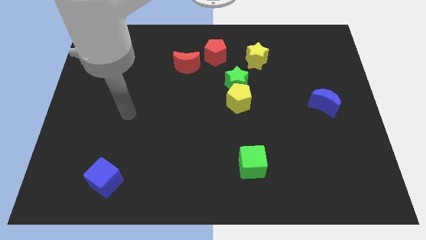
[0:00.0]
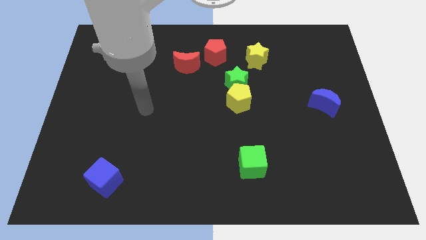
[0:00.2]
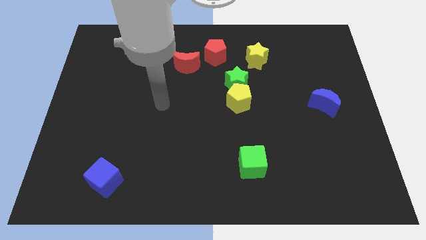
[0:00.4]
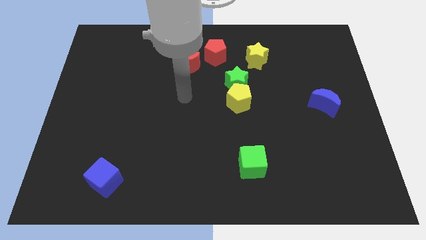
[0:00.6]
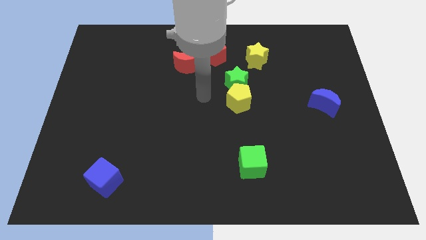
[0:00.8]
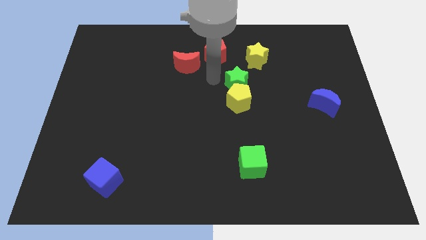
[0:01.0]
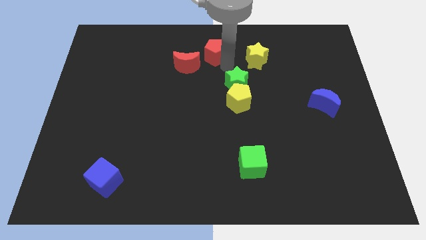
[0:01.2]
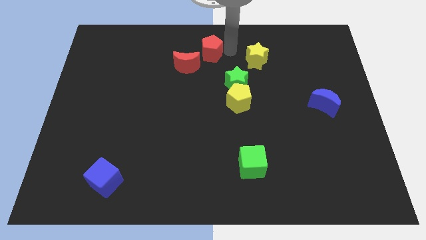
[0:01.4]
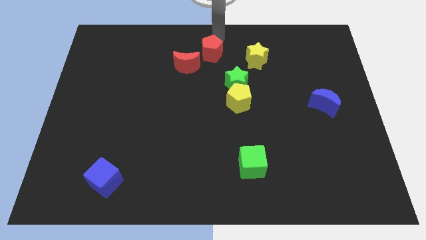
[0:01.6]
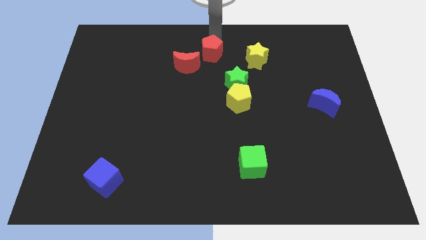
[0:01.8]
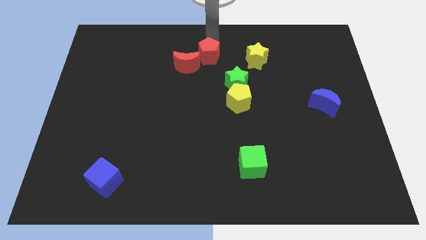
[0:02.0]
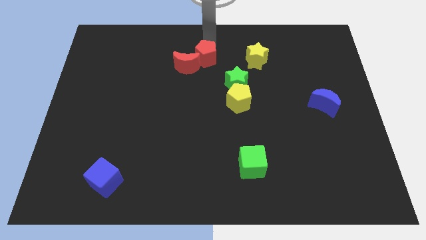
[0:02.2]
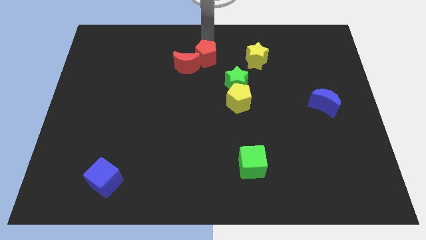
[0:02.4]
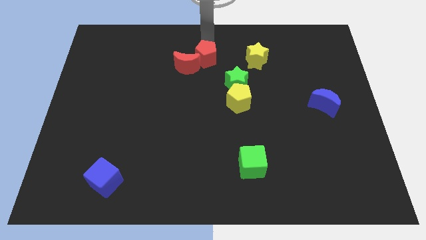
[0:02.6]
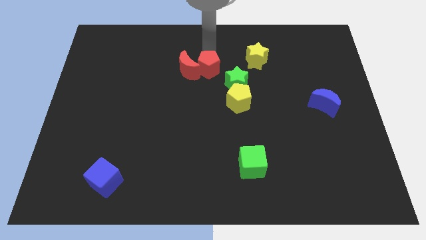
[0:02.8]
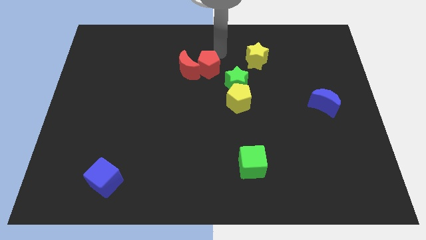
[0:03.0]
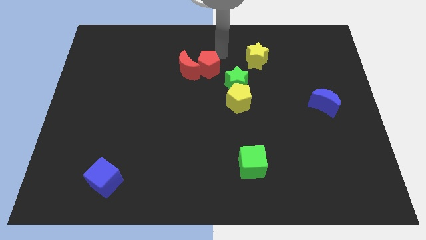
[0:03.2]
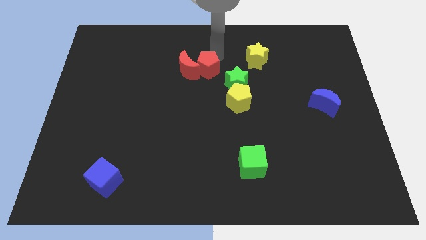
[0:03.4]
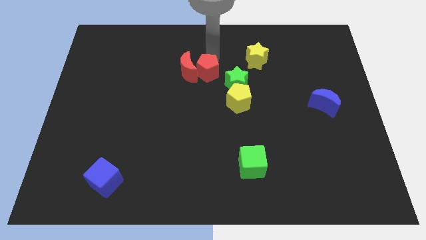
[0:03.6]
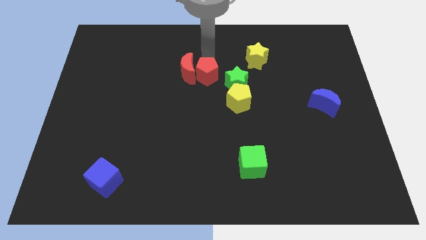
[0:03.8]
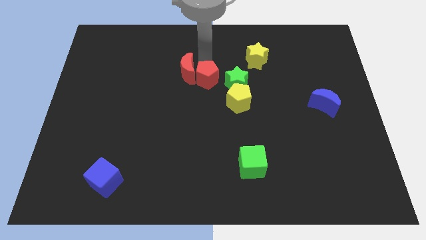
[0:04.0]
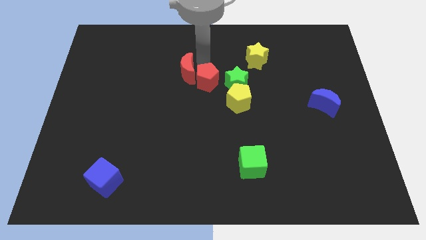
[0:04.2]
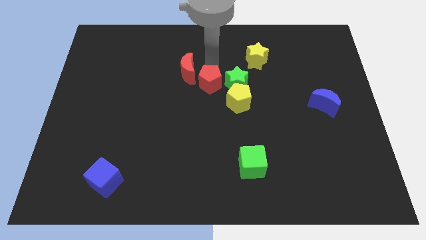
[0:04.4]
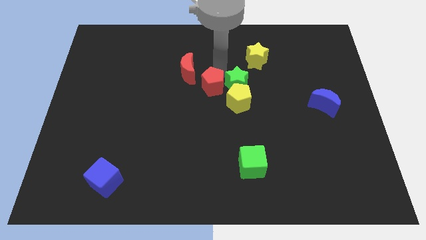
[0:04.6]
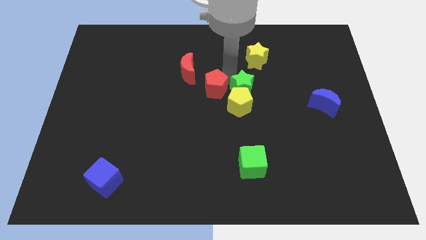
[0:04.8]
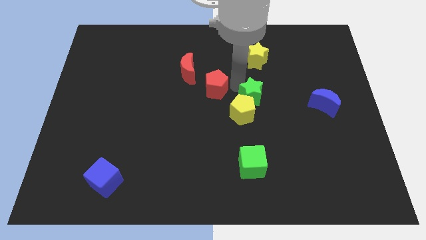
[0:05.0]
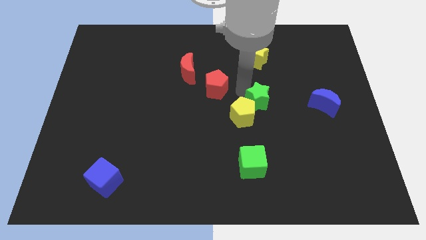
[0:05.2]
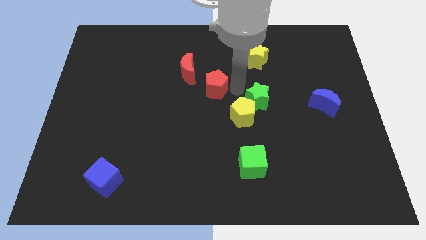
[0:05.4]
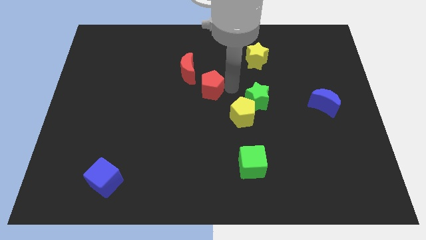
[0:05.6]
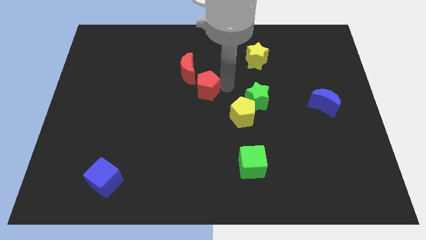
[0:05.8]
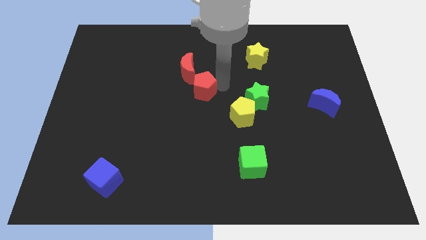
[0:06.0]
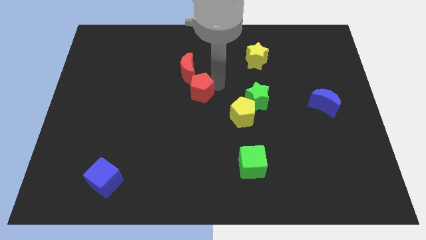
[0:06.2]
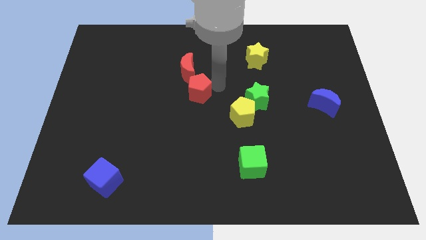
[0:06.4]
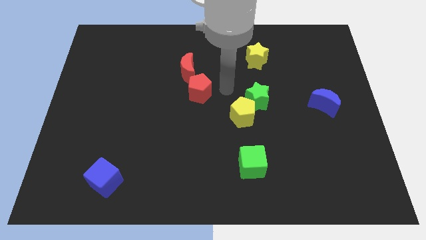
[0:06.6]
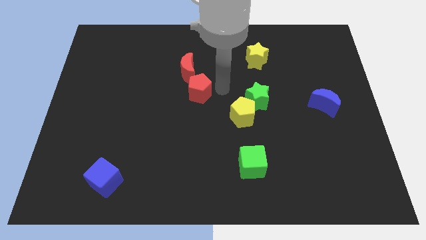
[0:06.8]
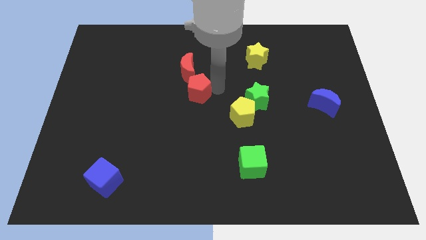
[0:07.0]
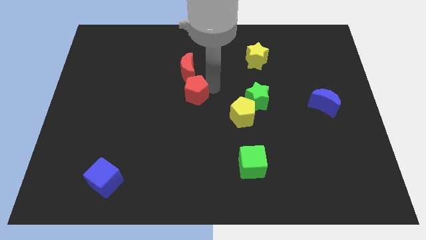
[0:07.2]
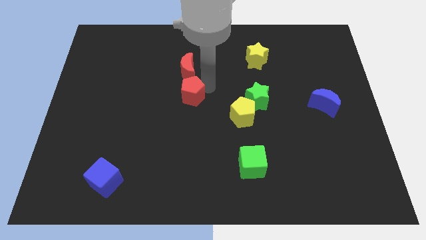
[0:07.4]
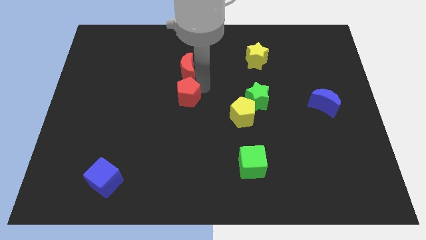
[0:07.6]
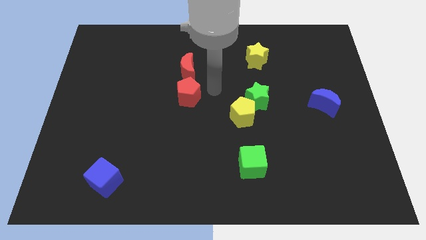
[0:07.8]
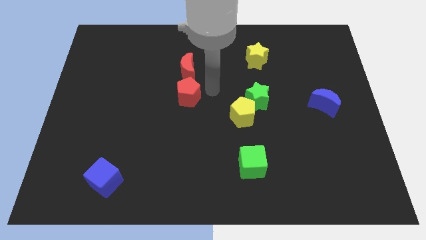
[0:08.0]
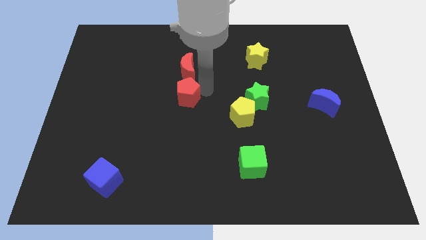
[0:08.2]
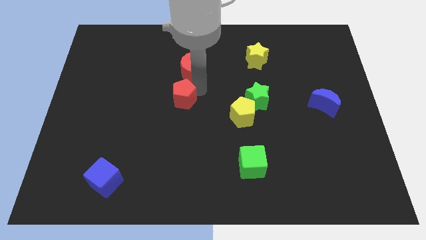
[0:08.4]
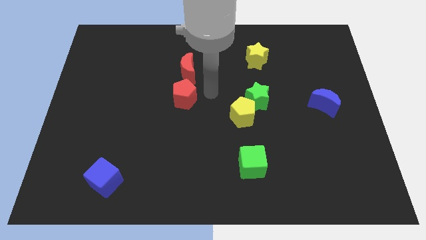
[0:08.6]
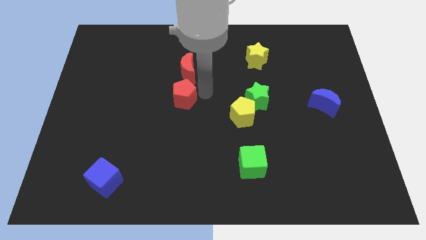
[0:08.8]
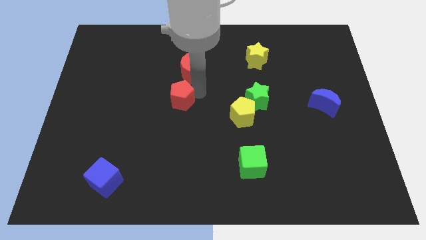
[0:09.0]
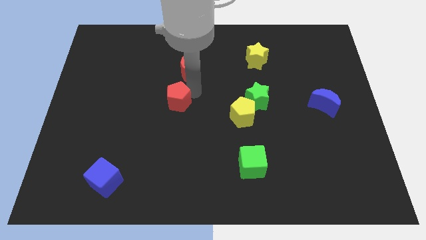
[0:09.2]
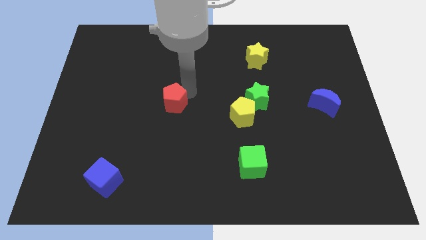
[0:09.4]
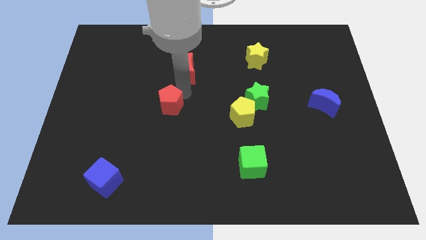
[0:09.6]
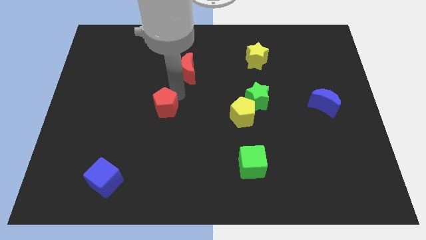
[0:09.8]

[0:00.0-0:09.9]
move the red pentagon down and left

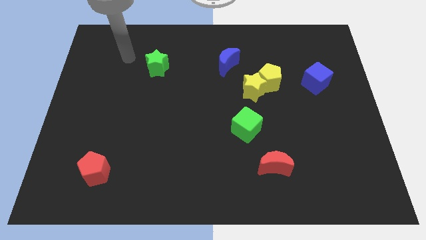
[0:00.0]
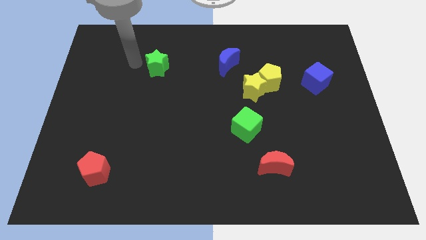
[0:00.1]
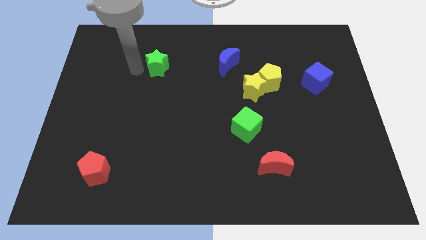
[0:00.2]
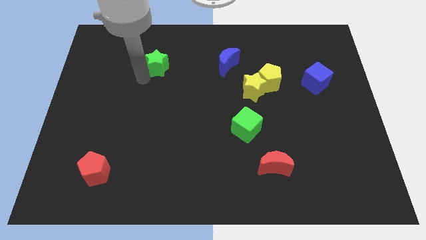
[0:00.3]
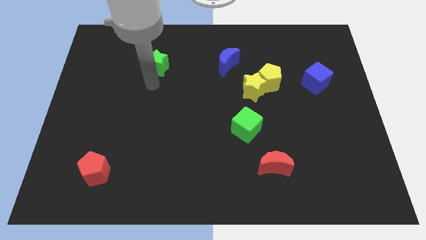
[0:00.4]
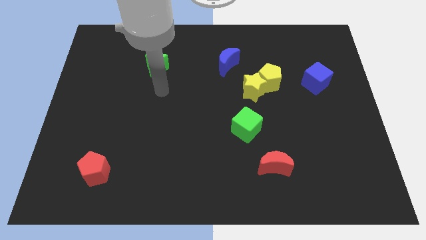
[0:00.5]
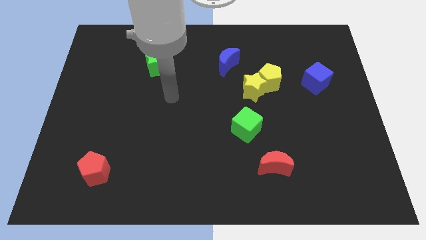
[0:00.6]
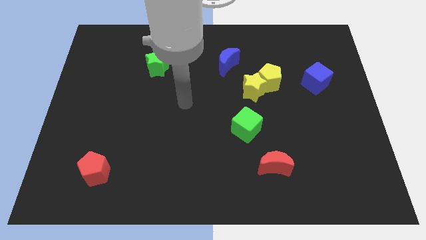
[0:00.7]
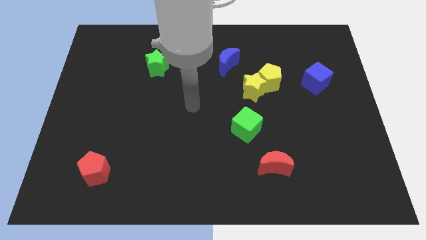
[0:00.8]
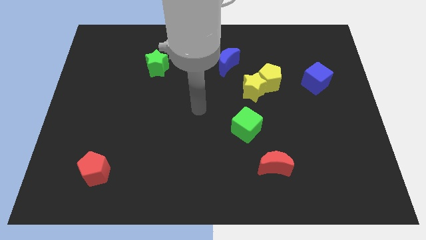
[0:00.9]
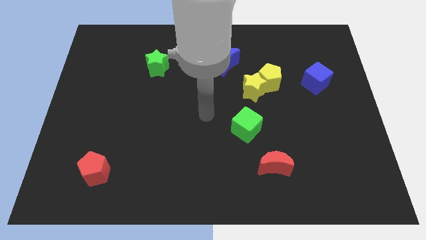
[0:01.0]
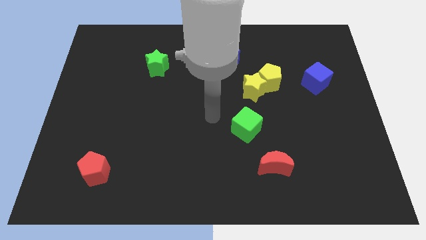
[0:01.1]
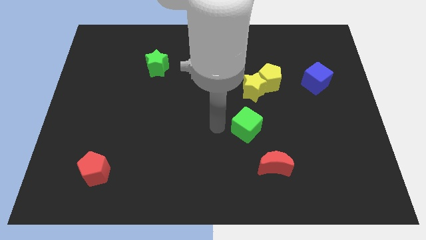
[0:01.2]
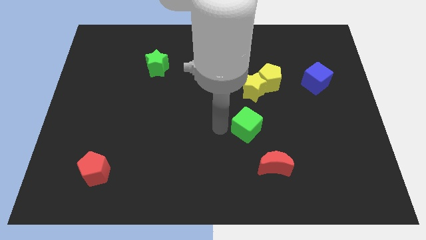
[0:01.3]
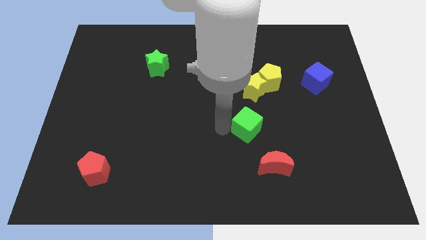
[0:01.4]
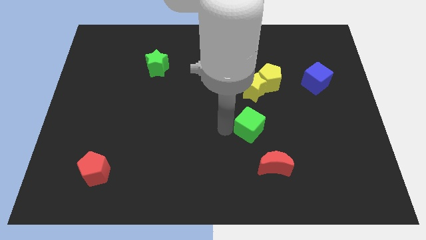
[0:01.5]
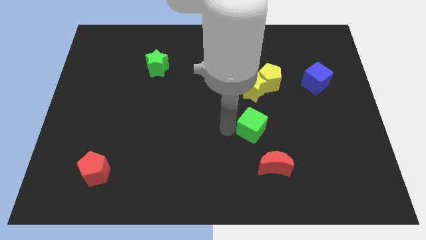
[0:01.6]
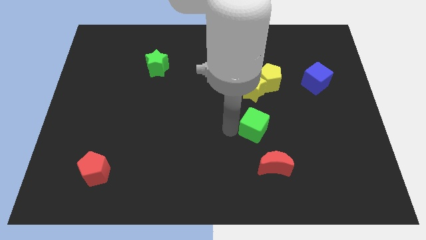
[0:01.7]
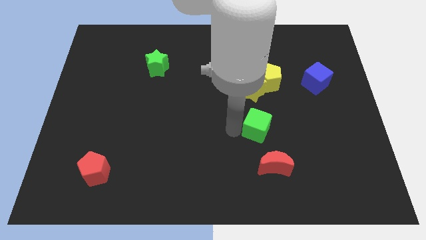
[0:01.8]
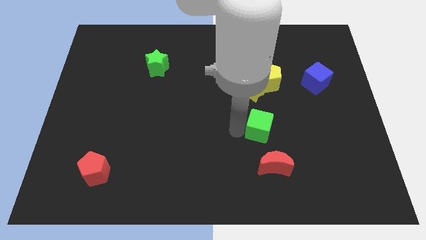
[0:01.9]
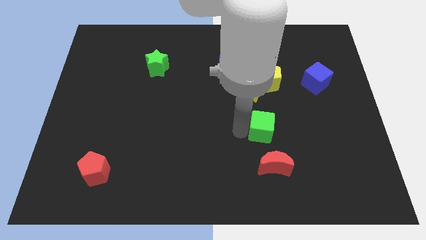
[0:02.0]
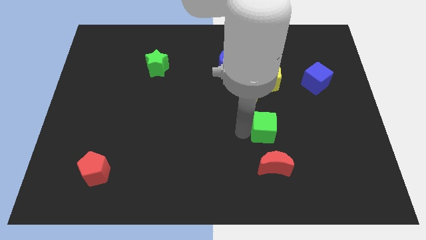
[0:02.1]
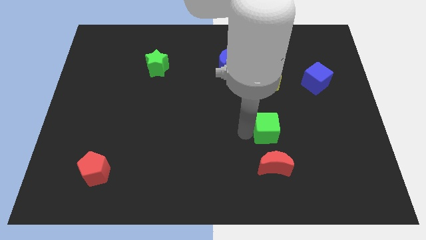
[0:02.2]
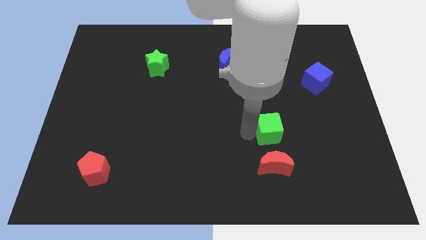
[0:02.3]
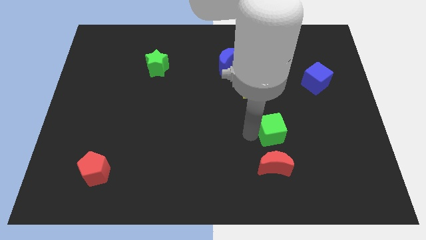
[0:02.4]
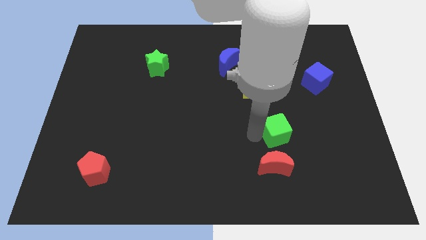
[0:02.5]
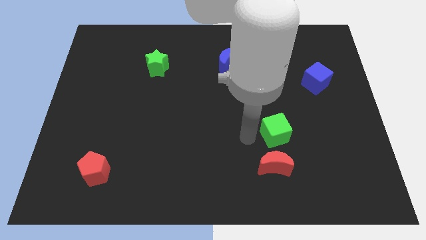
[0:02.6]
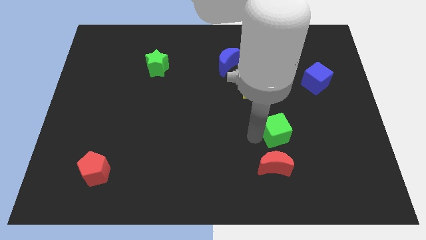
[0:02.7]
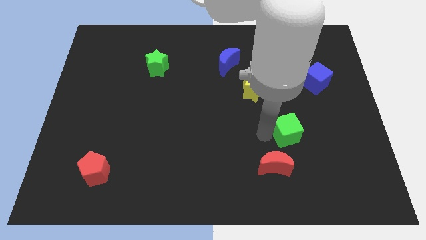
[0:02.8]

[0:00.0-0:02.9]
move the green cube to the right slightly

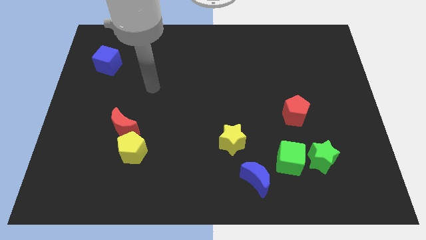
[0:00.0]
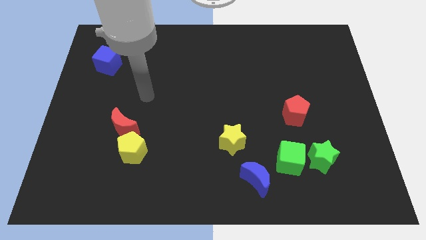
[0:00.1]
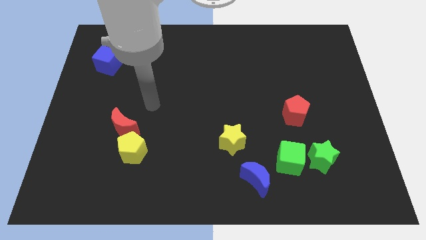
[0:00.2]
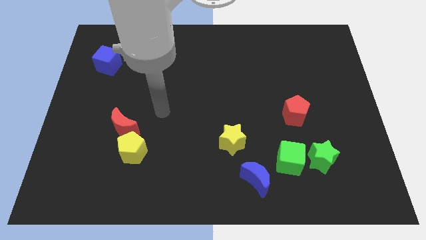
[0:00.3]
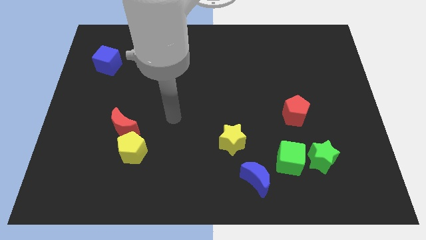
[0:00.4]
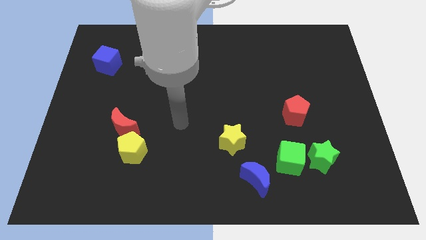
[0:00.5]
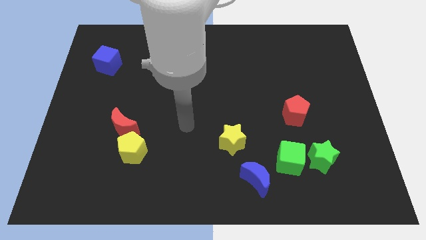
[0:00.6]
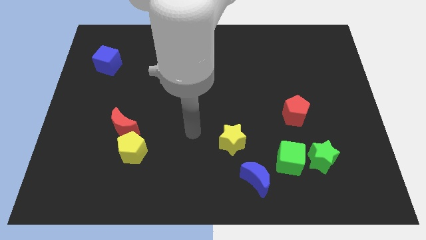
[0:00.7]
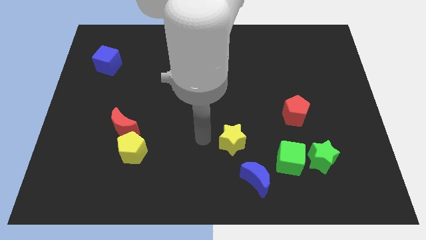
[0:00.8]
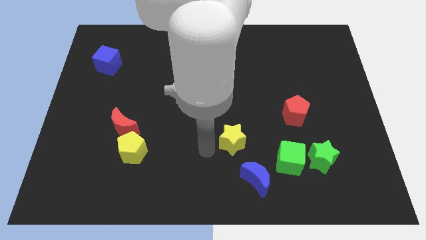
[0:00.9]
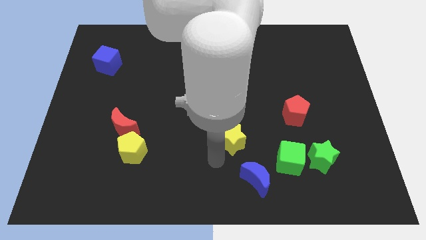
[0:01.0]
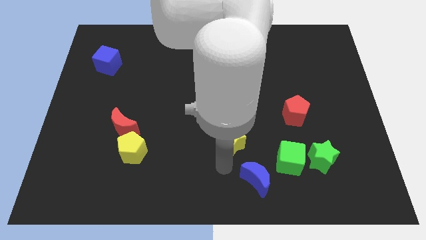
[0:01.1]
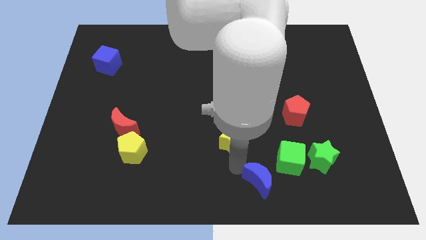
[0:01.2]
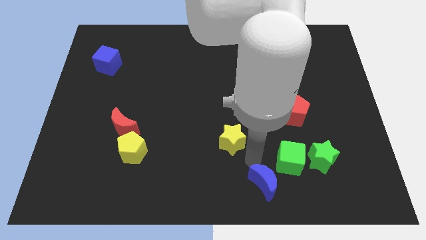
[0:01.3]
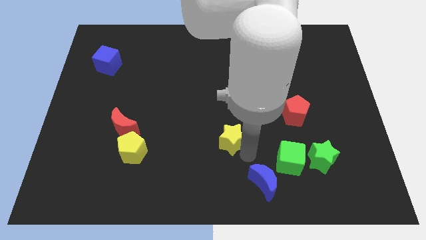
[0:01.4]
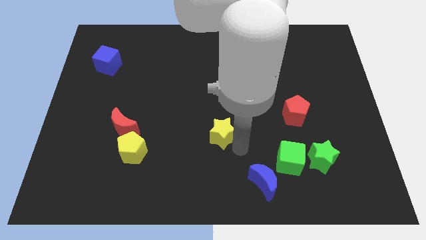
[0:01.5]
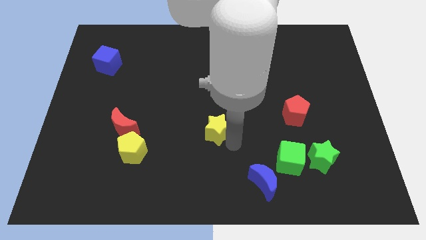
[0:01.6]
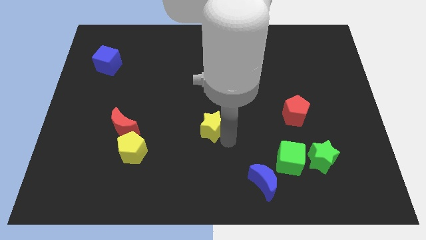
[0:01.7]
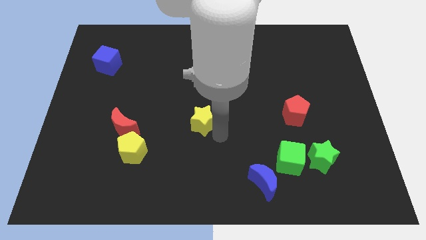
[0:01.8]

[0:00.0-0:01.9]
slightly slide the yellow star up and to the left
